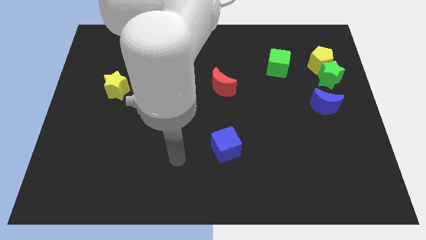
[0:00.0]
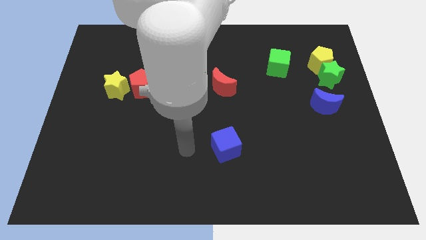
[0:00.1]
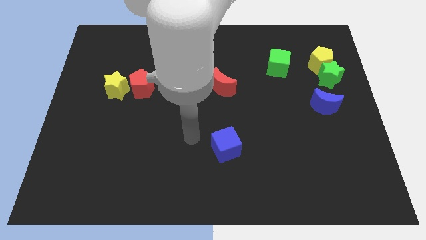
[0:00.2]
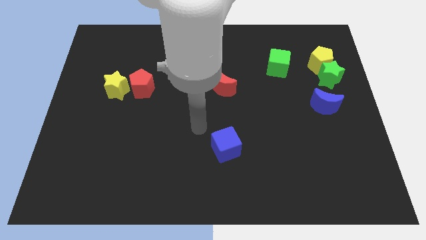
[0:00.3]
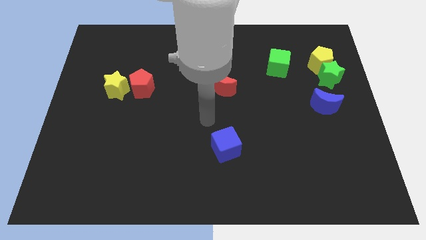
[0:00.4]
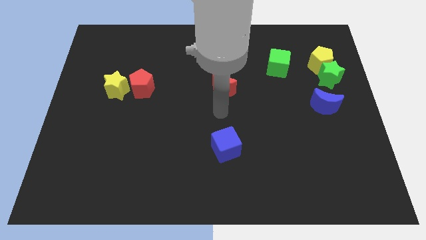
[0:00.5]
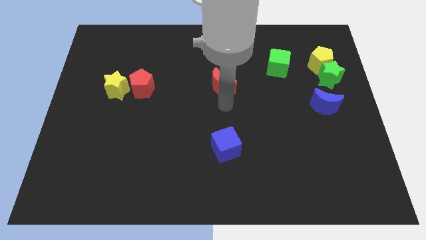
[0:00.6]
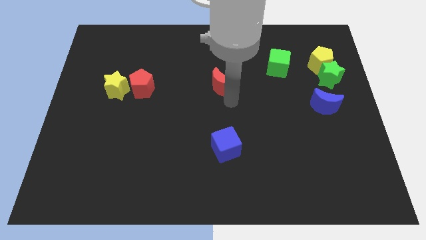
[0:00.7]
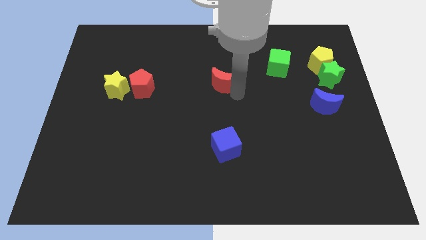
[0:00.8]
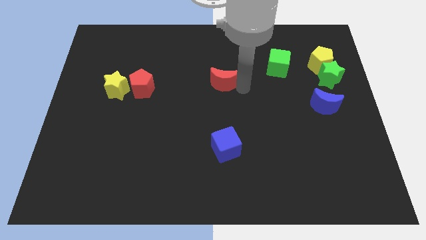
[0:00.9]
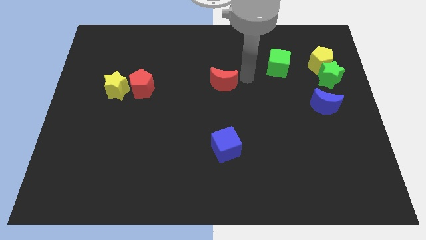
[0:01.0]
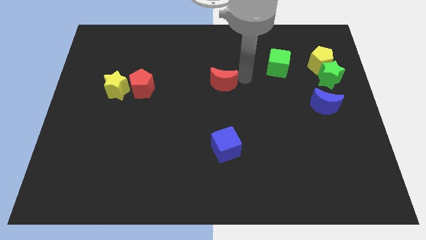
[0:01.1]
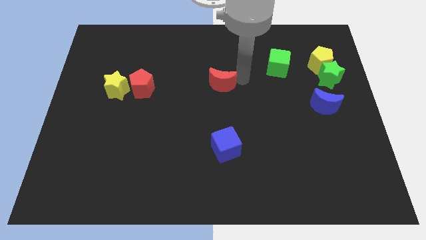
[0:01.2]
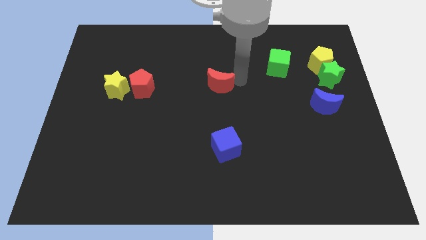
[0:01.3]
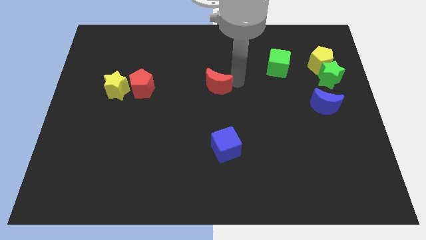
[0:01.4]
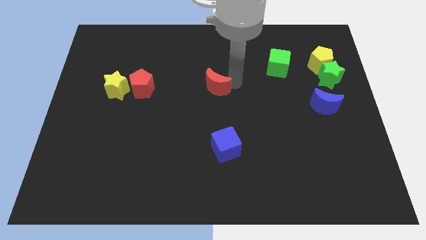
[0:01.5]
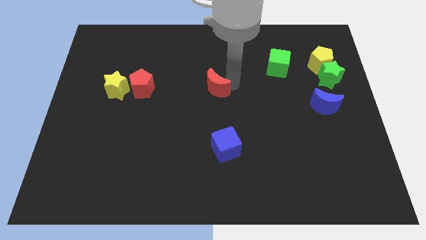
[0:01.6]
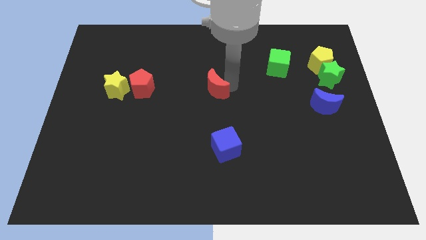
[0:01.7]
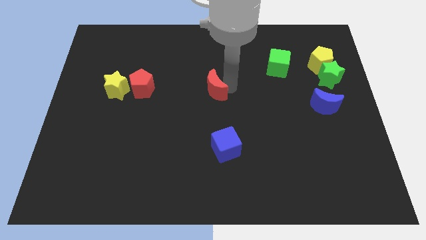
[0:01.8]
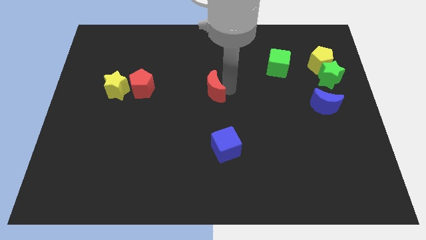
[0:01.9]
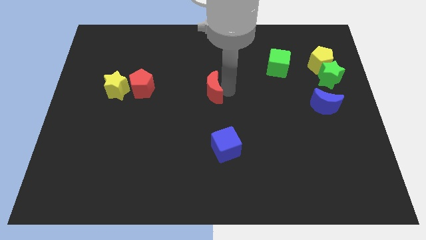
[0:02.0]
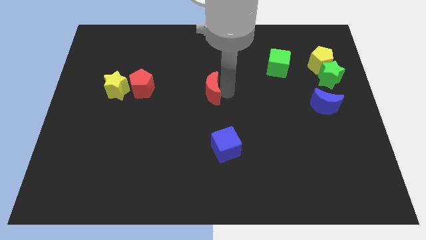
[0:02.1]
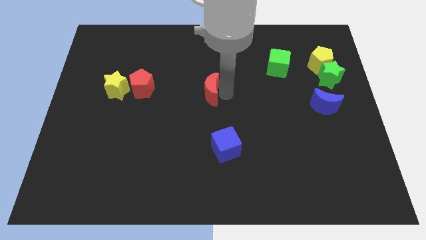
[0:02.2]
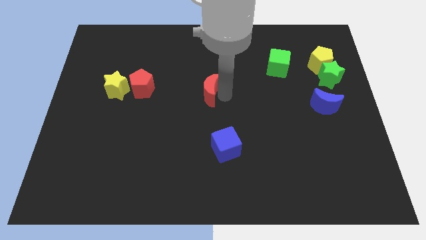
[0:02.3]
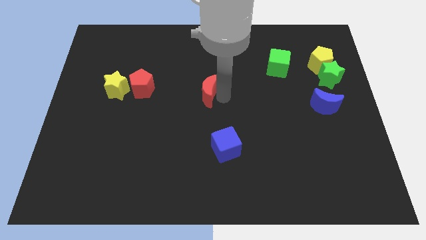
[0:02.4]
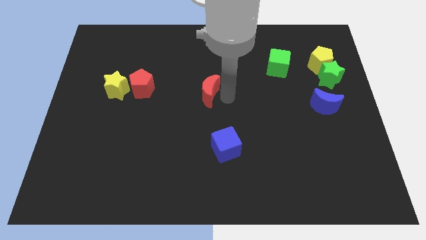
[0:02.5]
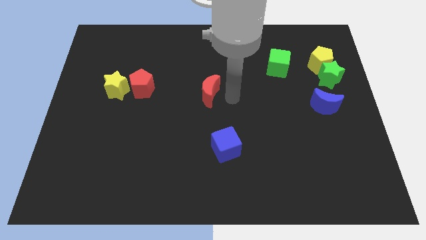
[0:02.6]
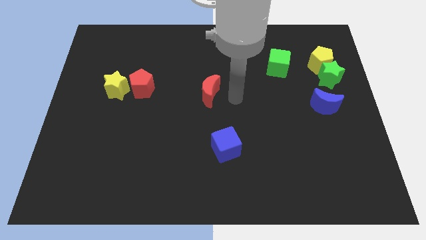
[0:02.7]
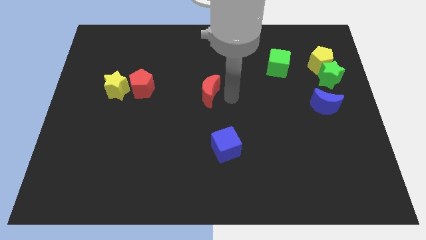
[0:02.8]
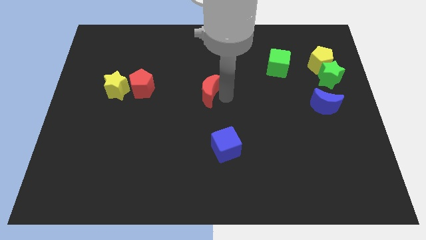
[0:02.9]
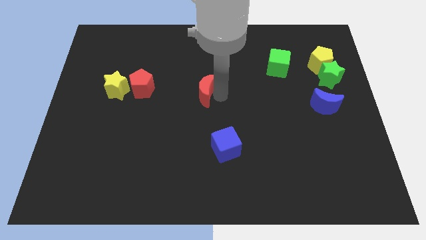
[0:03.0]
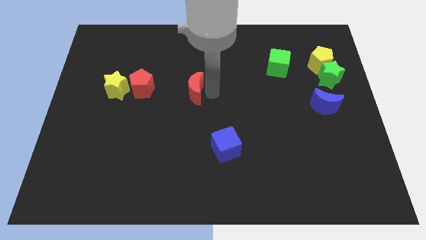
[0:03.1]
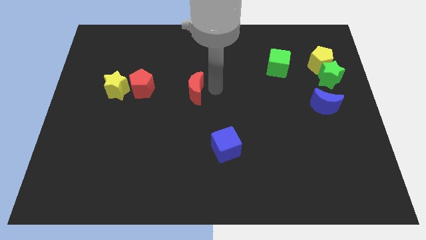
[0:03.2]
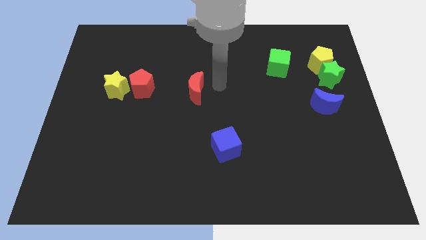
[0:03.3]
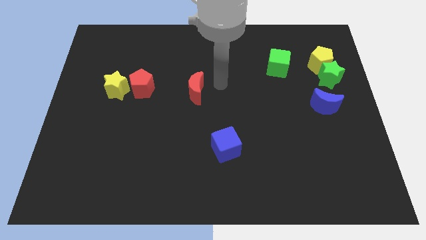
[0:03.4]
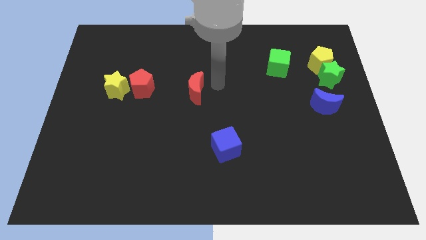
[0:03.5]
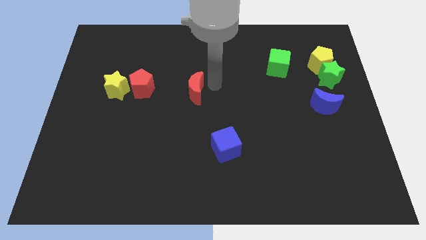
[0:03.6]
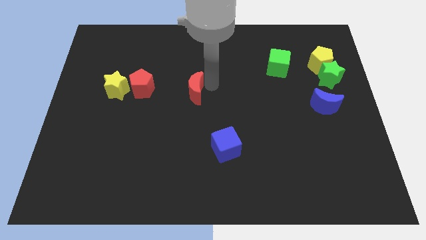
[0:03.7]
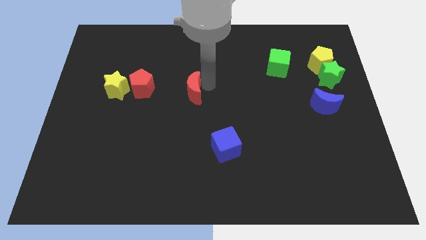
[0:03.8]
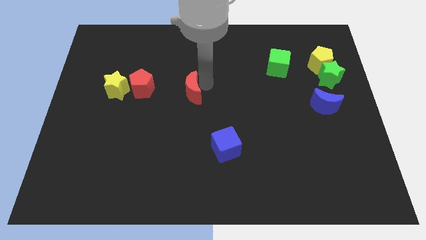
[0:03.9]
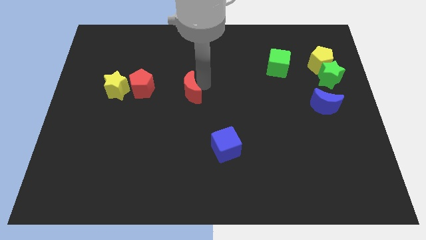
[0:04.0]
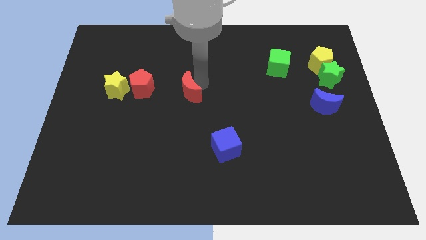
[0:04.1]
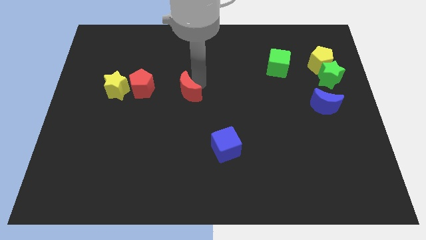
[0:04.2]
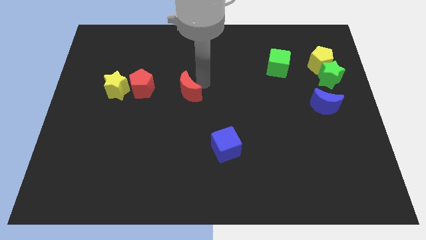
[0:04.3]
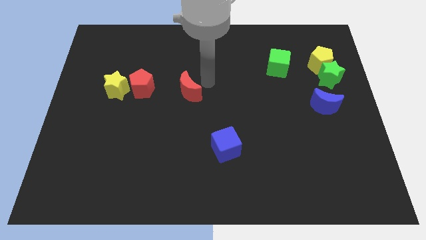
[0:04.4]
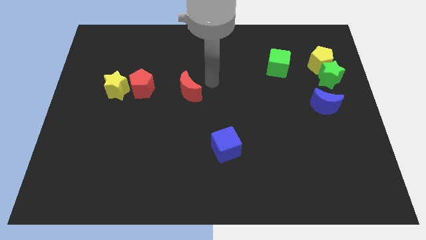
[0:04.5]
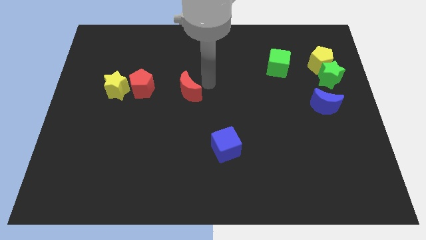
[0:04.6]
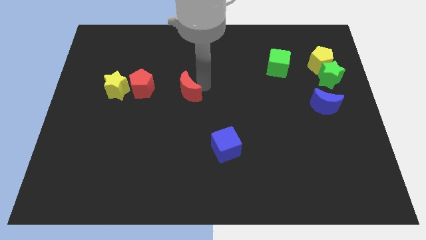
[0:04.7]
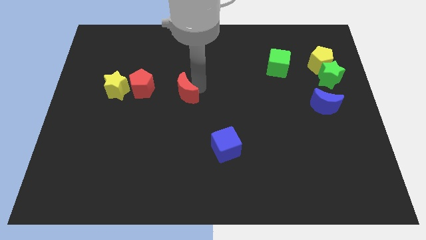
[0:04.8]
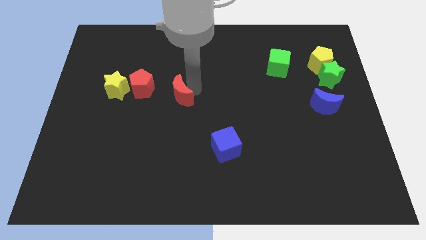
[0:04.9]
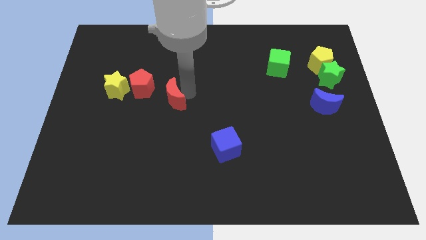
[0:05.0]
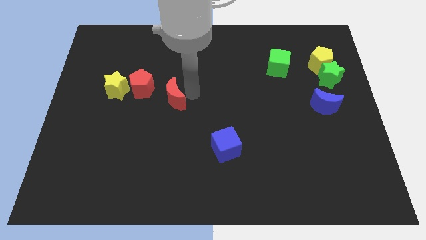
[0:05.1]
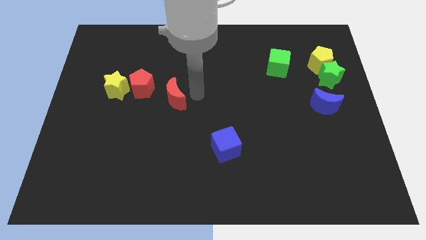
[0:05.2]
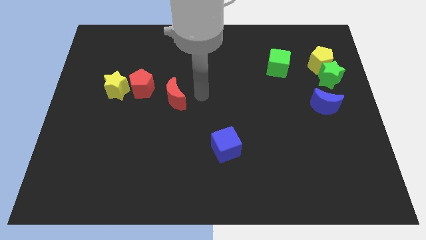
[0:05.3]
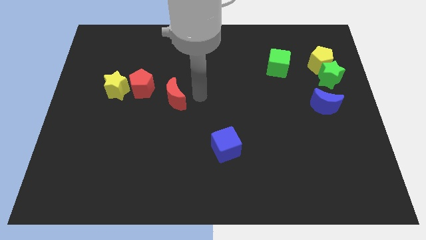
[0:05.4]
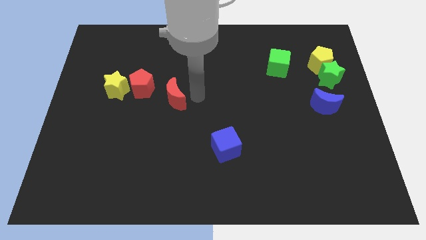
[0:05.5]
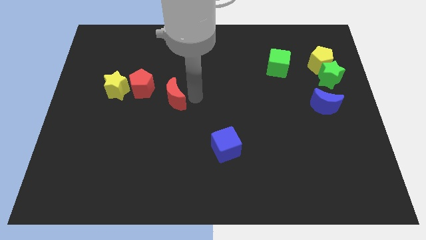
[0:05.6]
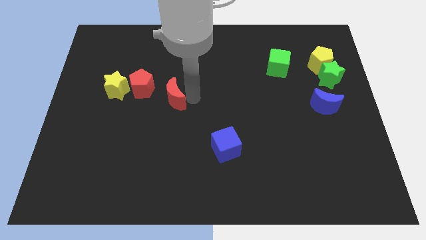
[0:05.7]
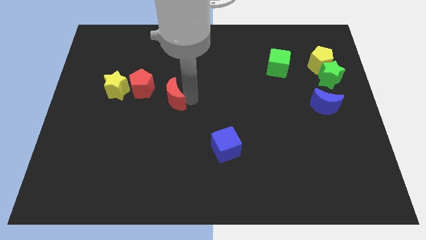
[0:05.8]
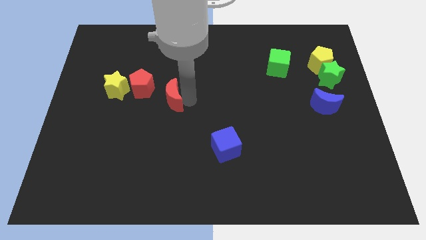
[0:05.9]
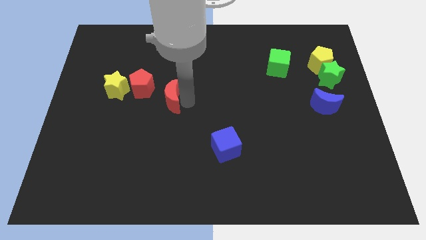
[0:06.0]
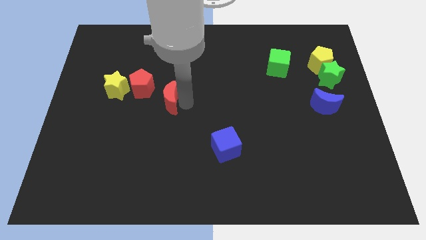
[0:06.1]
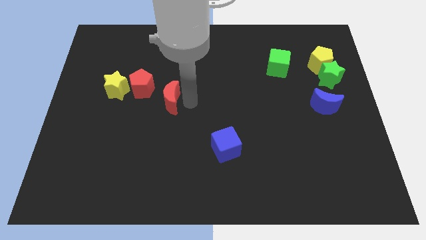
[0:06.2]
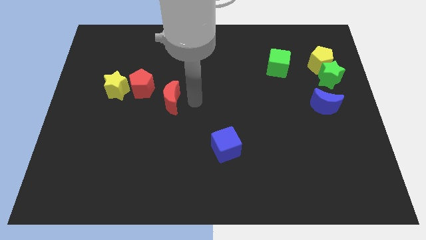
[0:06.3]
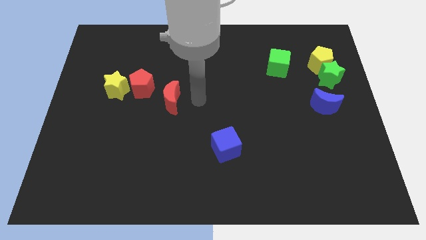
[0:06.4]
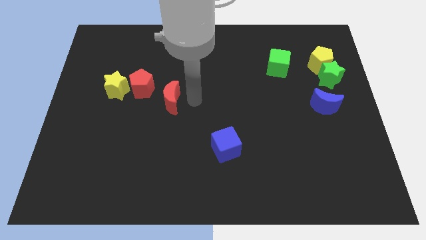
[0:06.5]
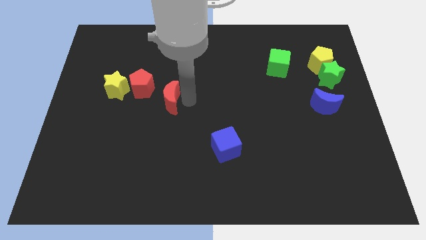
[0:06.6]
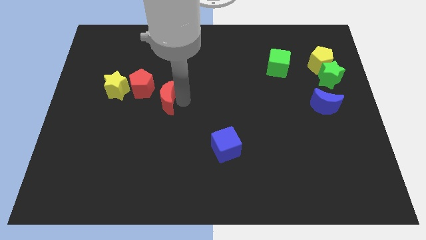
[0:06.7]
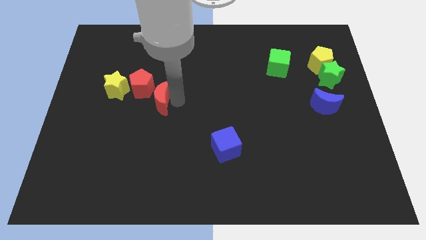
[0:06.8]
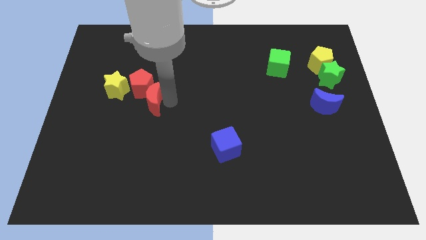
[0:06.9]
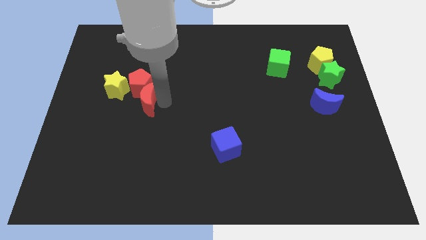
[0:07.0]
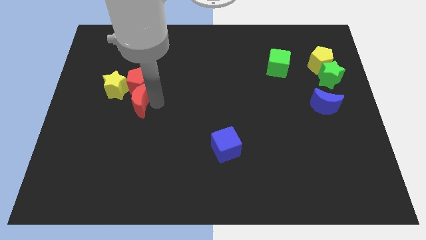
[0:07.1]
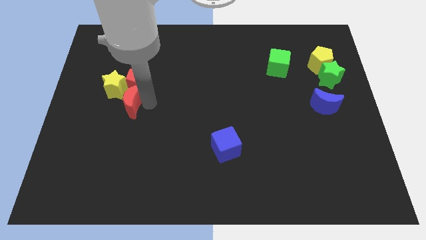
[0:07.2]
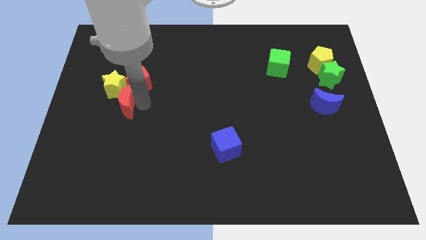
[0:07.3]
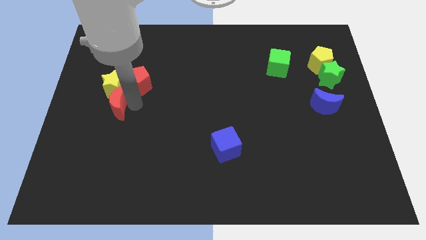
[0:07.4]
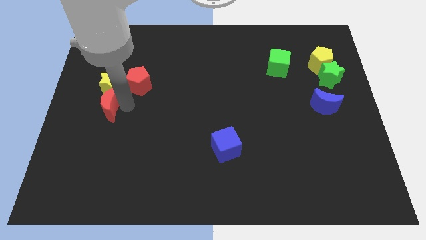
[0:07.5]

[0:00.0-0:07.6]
put the red moon diagonally down and to the left of the yellow star

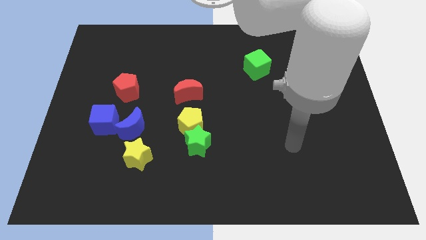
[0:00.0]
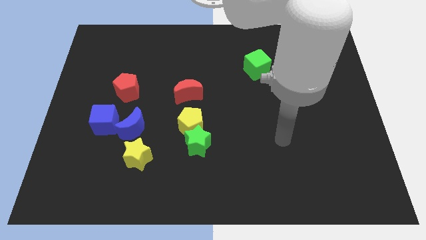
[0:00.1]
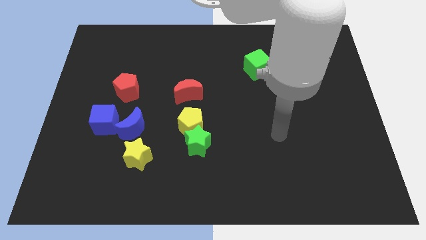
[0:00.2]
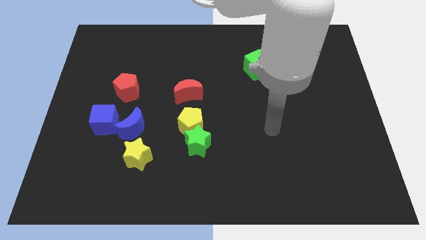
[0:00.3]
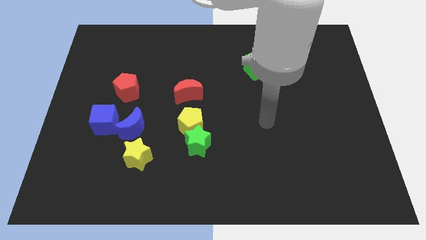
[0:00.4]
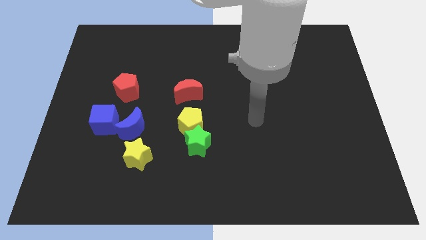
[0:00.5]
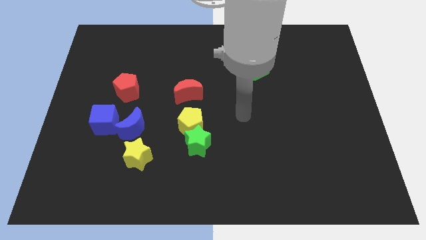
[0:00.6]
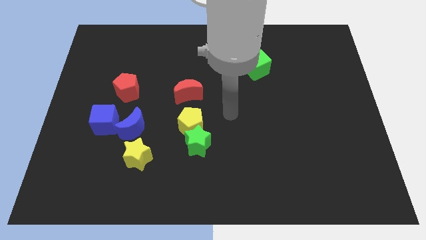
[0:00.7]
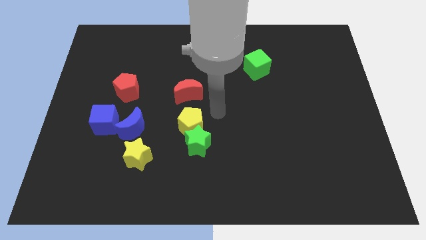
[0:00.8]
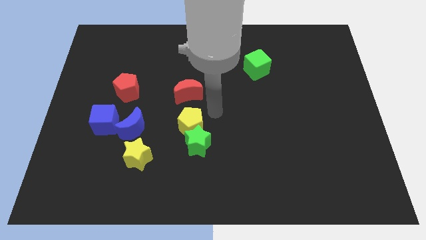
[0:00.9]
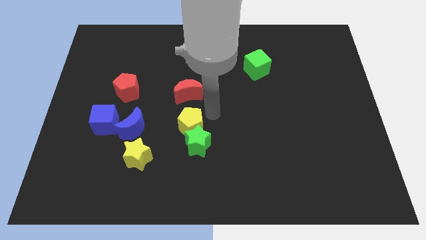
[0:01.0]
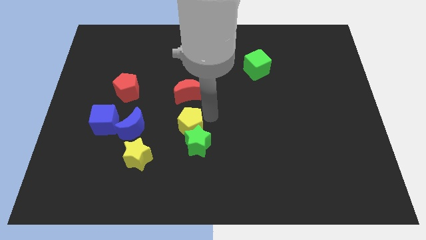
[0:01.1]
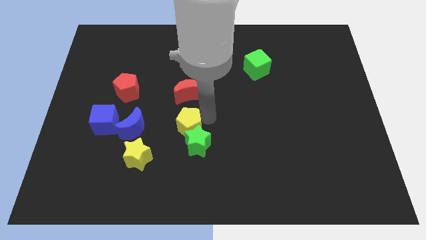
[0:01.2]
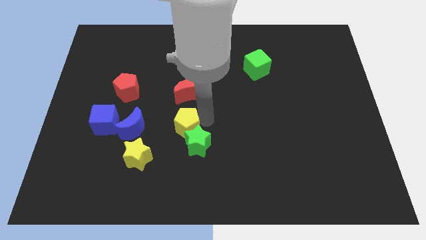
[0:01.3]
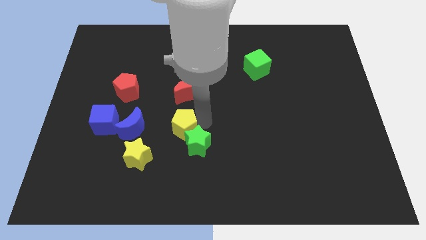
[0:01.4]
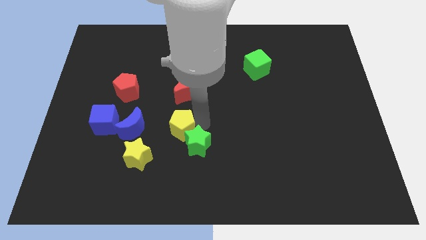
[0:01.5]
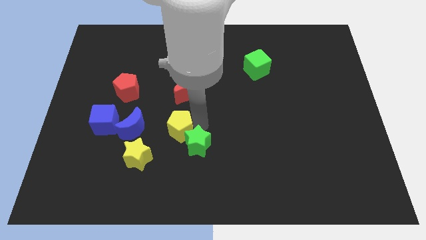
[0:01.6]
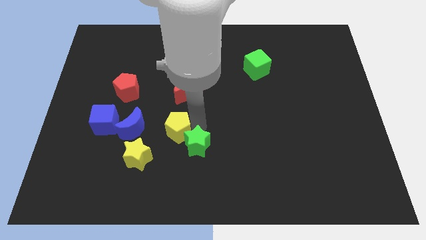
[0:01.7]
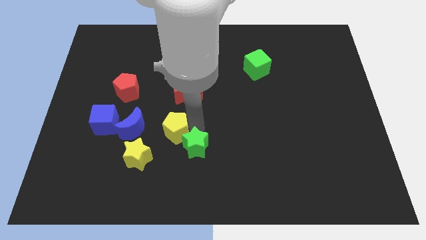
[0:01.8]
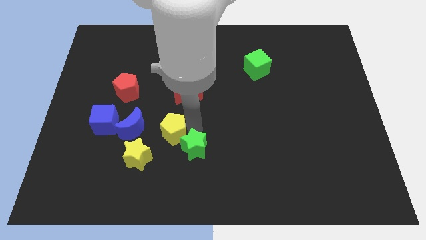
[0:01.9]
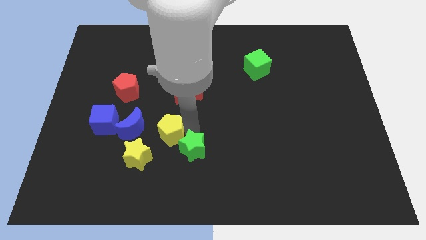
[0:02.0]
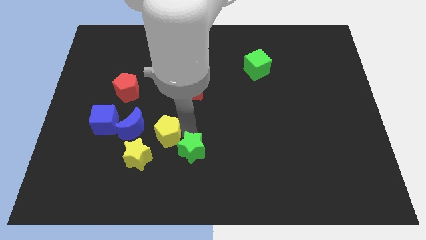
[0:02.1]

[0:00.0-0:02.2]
move the yellow pentagon to the bottom right of the blue moon
